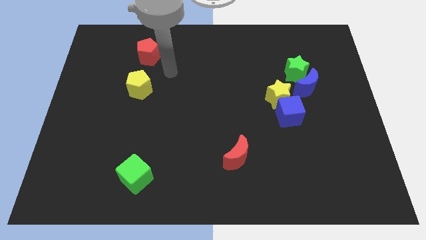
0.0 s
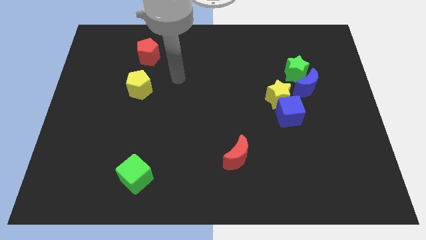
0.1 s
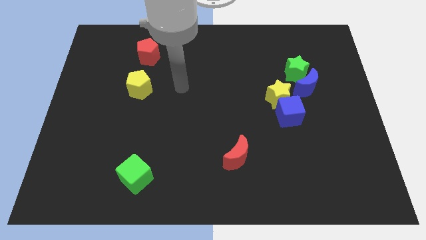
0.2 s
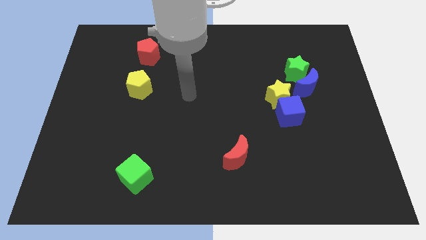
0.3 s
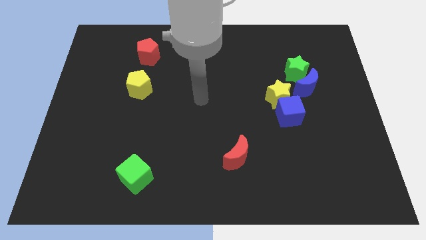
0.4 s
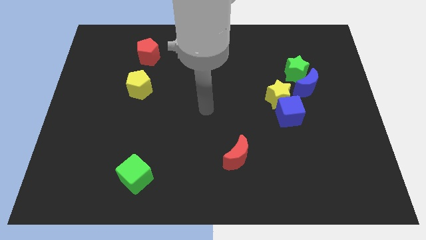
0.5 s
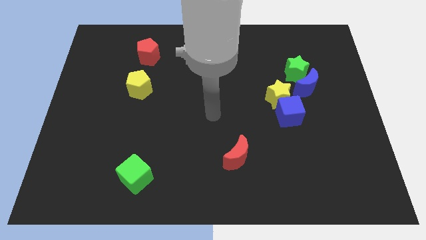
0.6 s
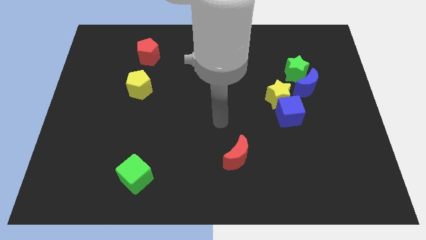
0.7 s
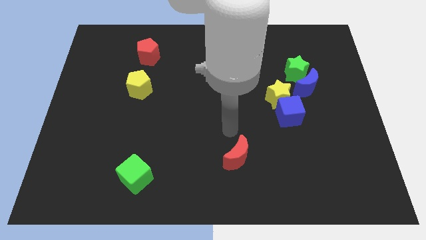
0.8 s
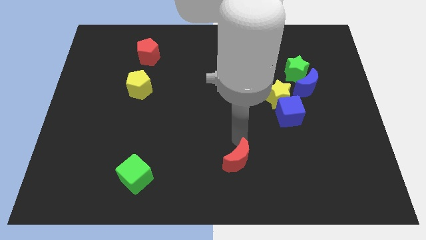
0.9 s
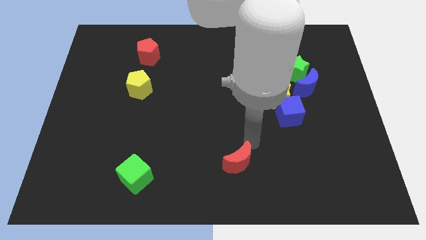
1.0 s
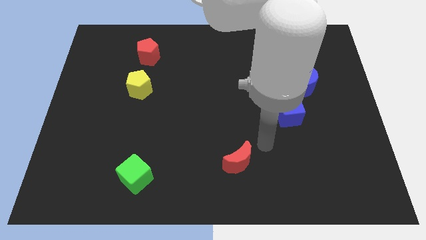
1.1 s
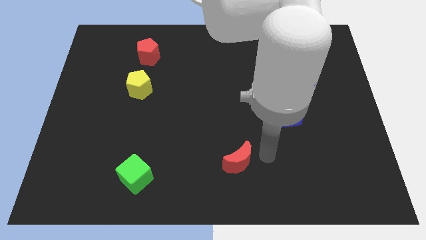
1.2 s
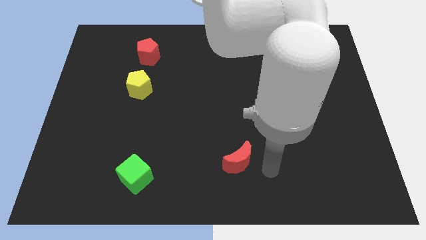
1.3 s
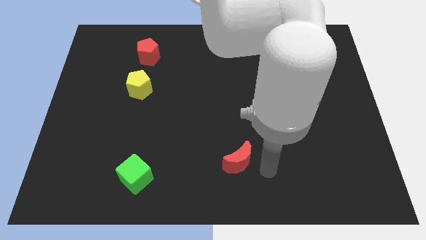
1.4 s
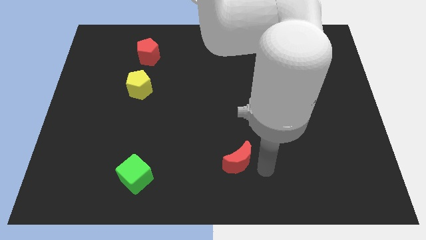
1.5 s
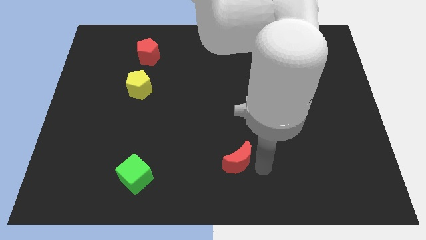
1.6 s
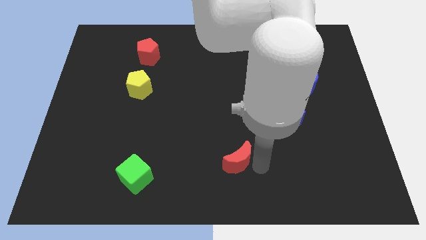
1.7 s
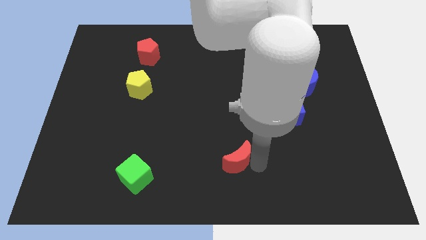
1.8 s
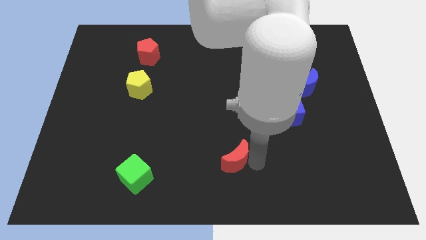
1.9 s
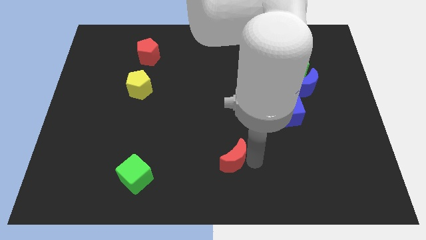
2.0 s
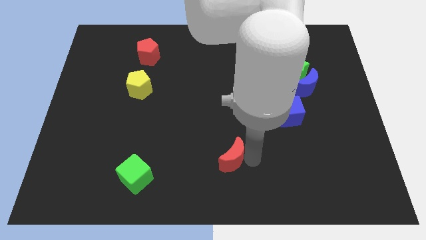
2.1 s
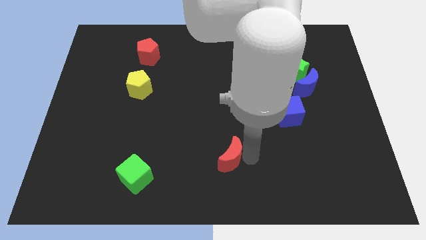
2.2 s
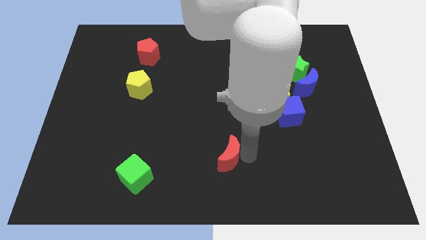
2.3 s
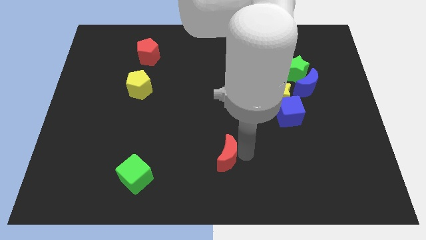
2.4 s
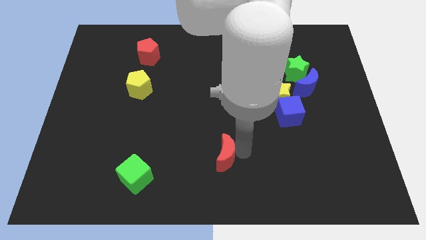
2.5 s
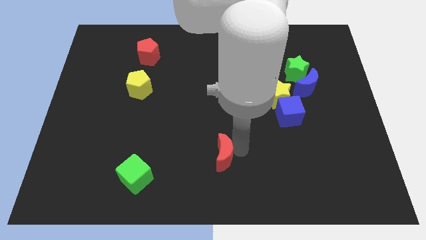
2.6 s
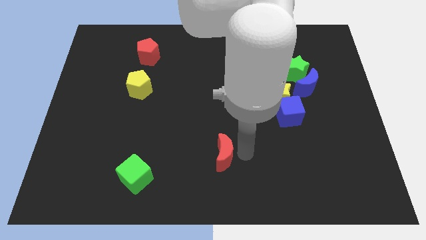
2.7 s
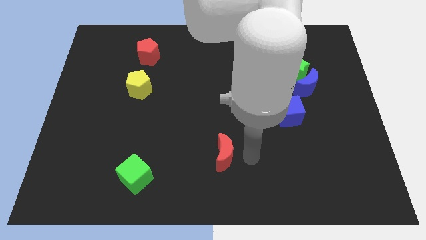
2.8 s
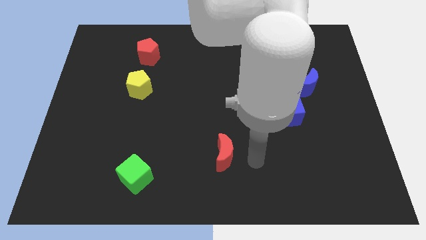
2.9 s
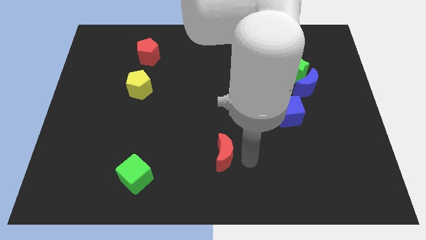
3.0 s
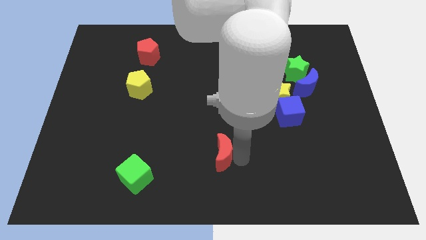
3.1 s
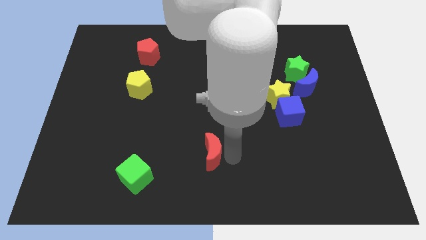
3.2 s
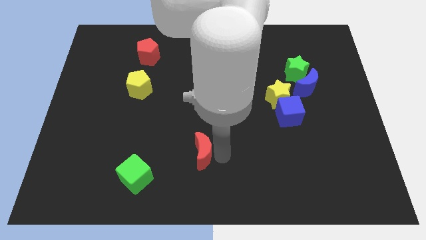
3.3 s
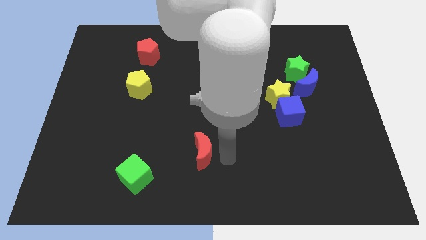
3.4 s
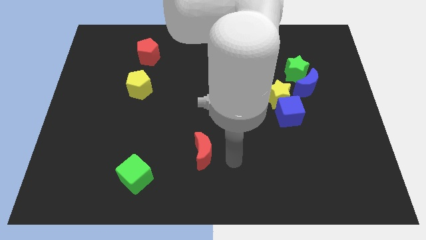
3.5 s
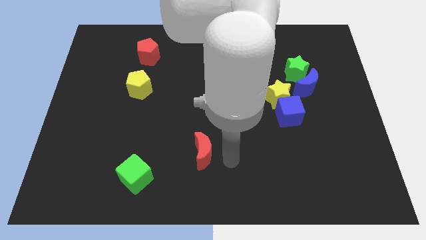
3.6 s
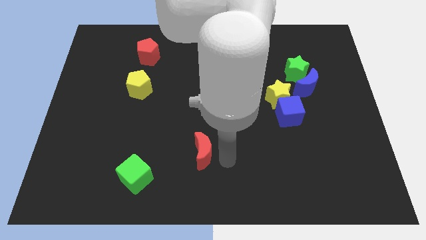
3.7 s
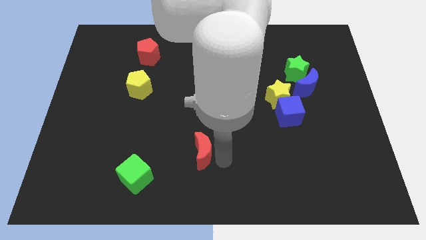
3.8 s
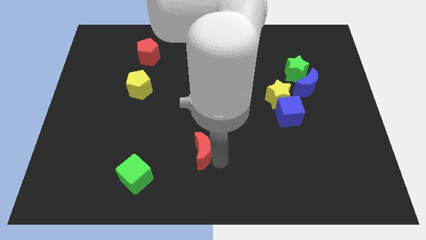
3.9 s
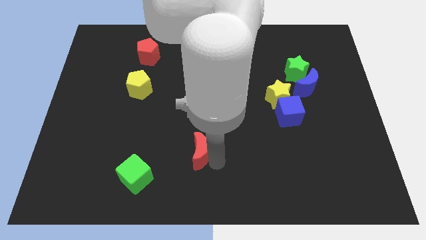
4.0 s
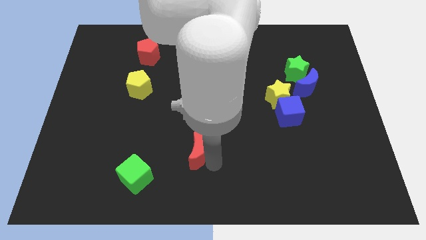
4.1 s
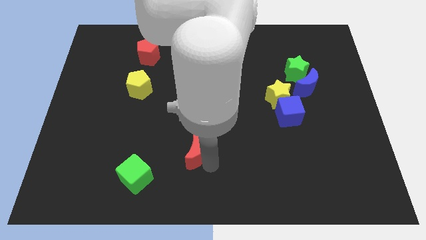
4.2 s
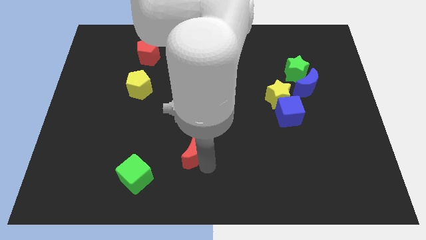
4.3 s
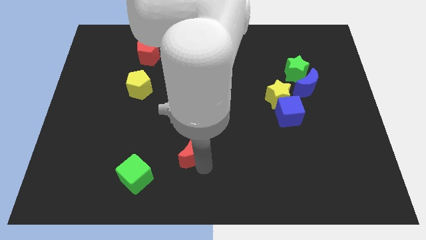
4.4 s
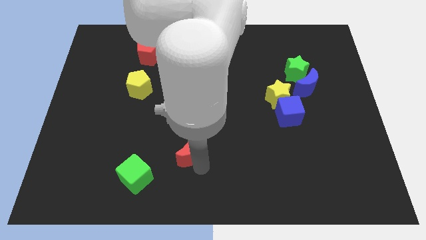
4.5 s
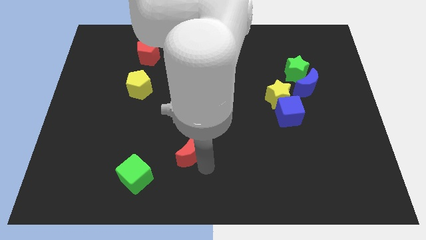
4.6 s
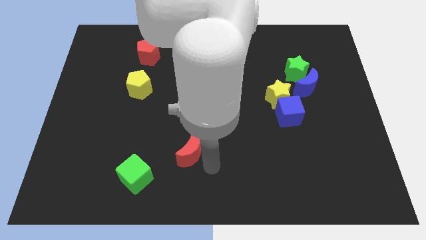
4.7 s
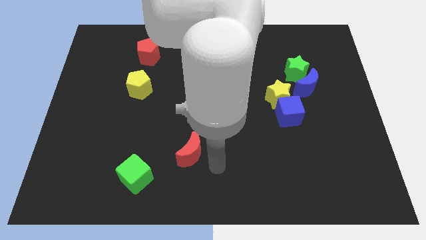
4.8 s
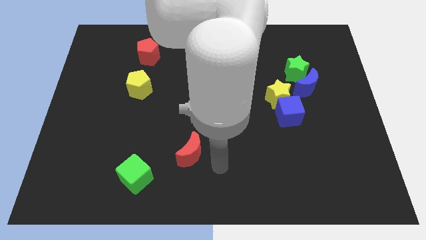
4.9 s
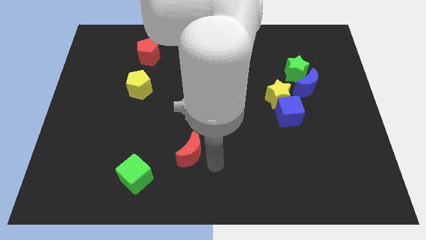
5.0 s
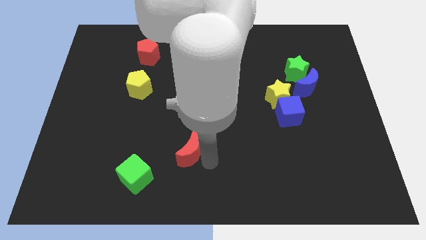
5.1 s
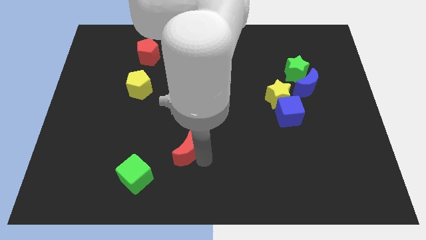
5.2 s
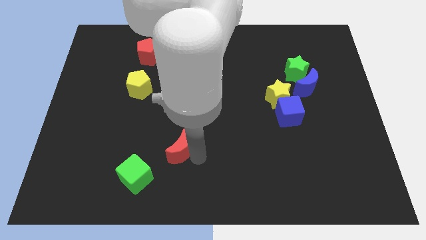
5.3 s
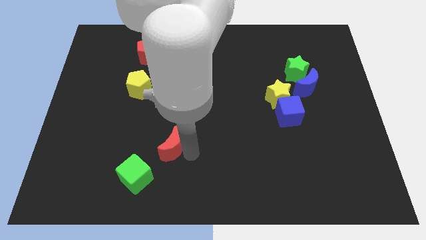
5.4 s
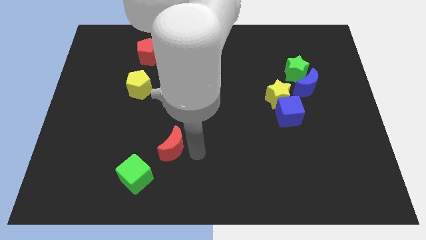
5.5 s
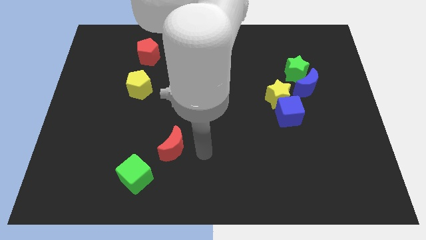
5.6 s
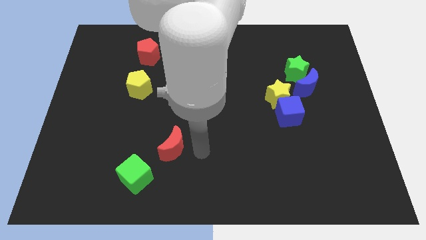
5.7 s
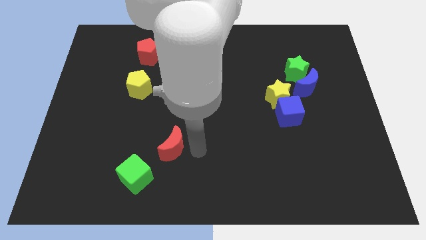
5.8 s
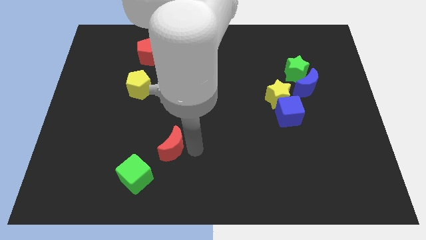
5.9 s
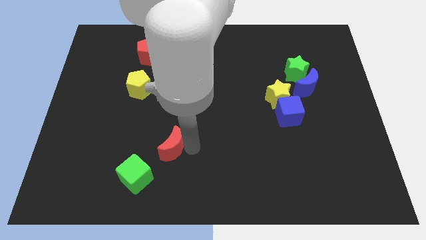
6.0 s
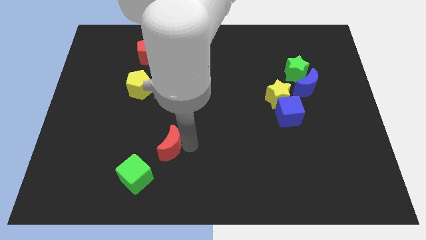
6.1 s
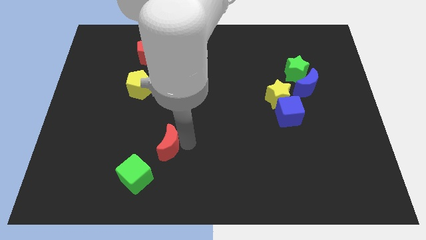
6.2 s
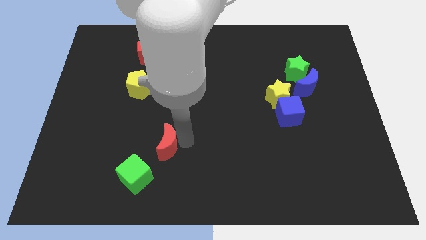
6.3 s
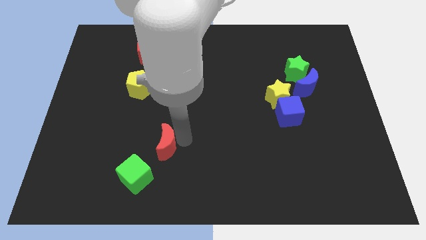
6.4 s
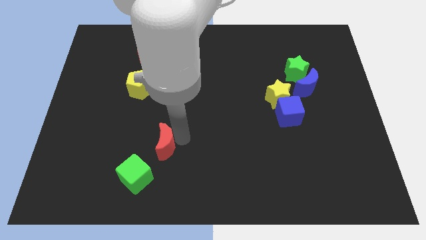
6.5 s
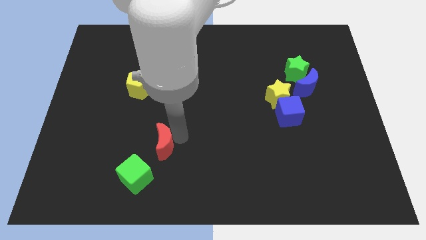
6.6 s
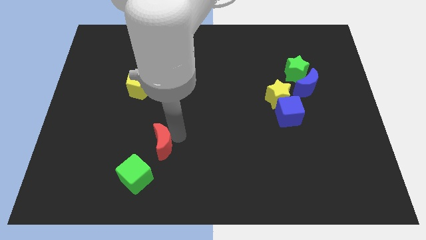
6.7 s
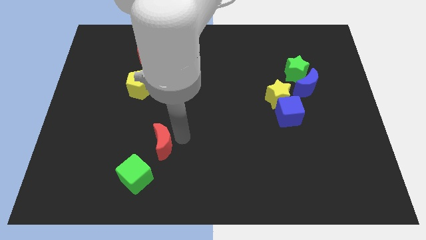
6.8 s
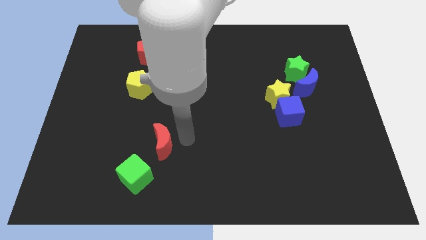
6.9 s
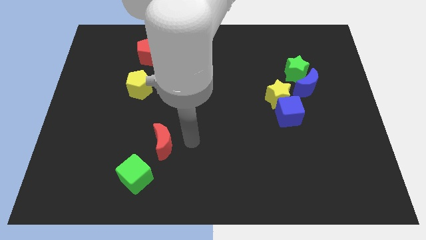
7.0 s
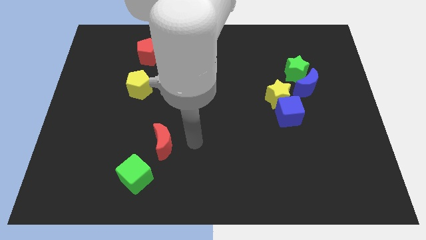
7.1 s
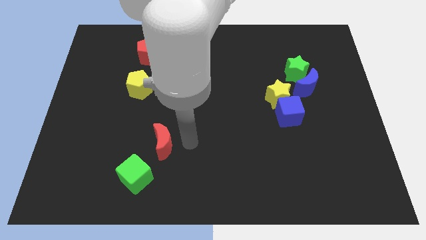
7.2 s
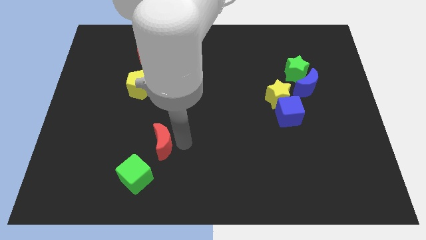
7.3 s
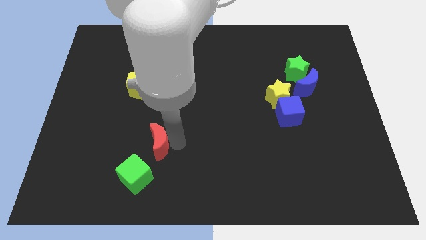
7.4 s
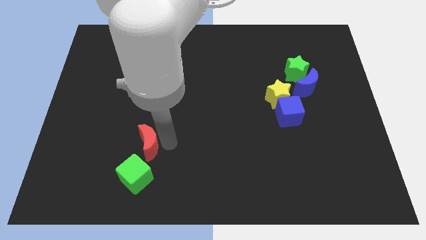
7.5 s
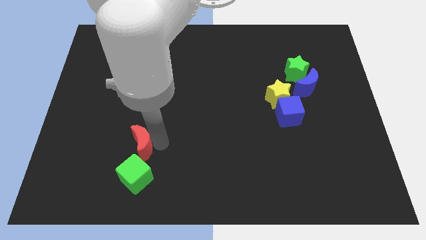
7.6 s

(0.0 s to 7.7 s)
move the red moon left
